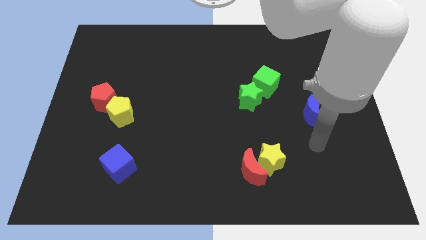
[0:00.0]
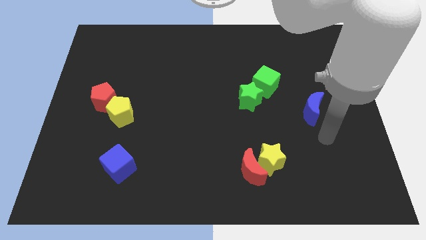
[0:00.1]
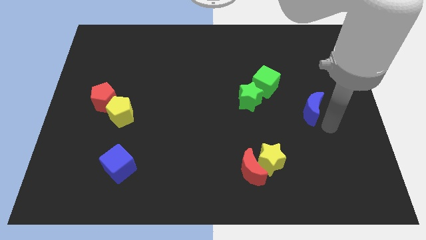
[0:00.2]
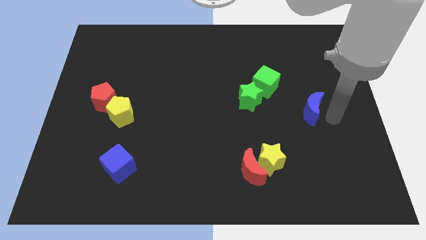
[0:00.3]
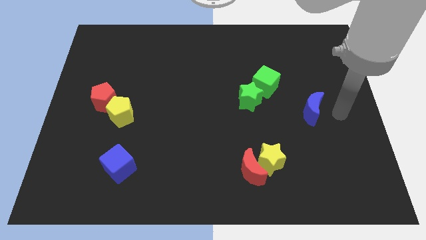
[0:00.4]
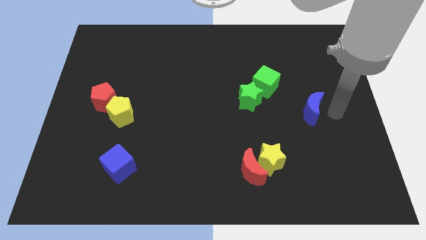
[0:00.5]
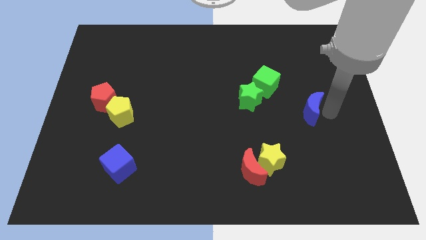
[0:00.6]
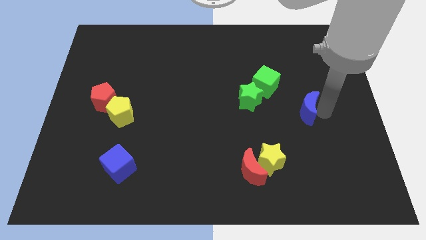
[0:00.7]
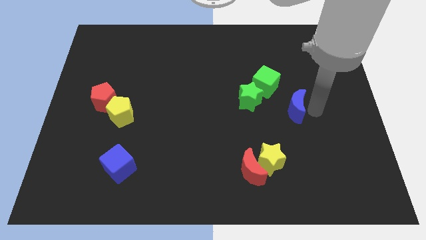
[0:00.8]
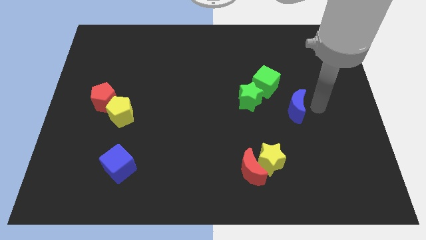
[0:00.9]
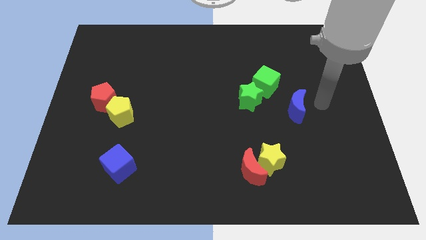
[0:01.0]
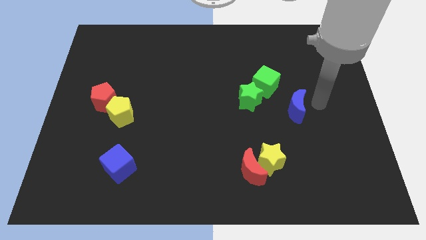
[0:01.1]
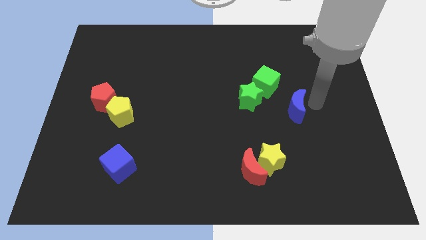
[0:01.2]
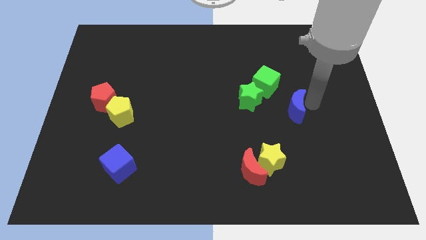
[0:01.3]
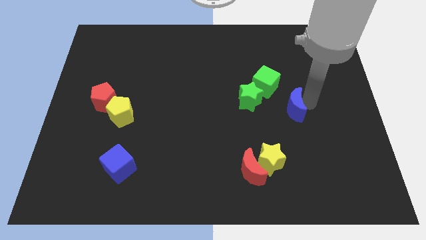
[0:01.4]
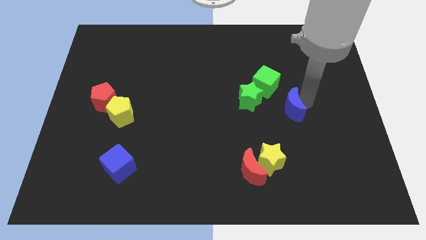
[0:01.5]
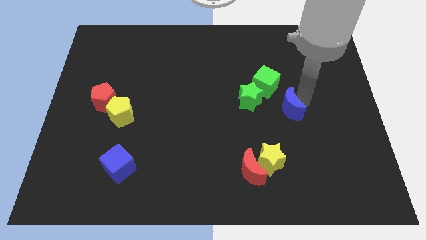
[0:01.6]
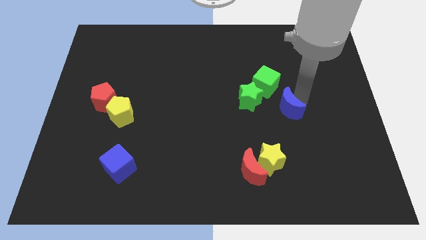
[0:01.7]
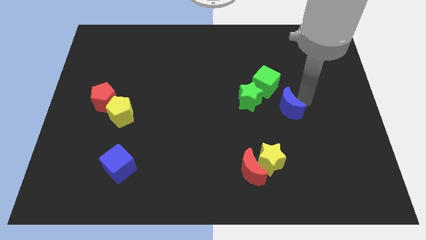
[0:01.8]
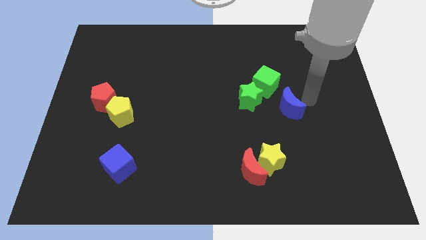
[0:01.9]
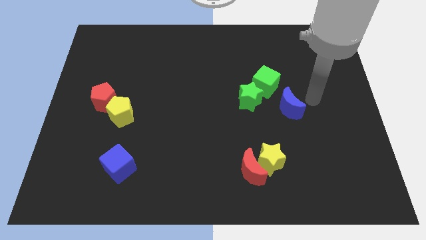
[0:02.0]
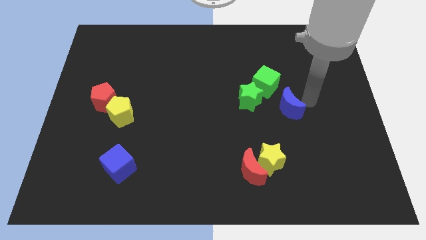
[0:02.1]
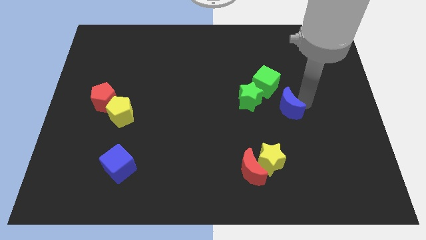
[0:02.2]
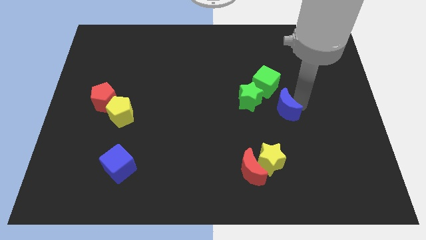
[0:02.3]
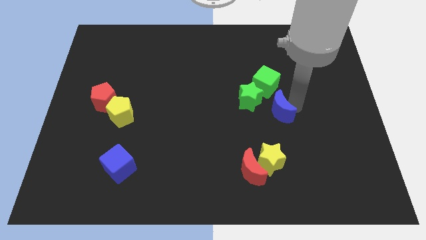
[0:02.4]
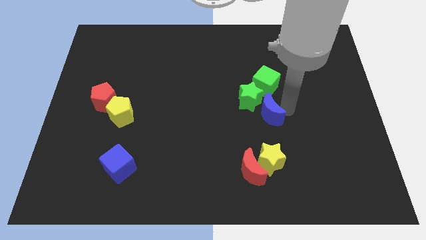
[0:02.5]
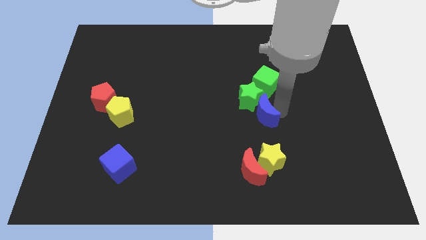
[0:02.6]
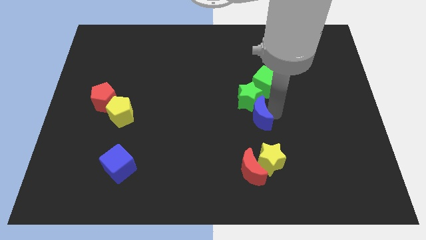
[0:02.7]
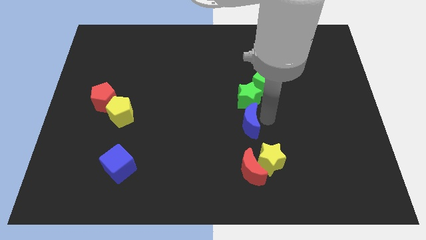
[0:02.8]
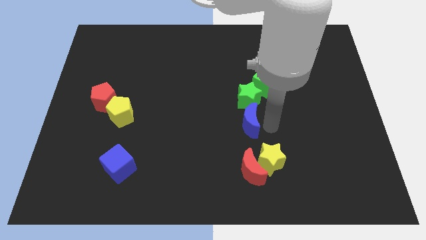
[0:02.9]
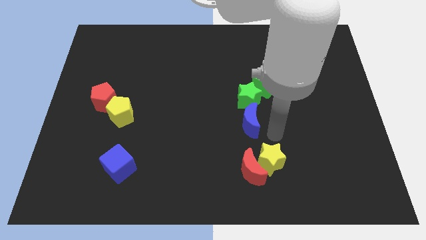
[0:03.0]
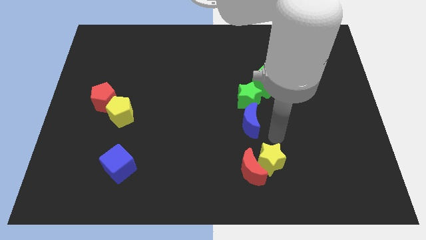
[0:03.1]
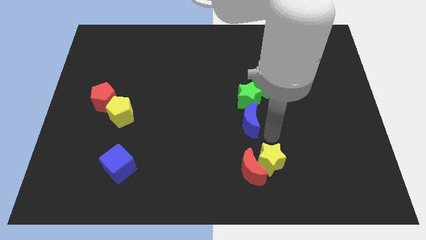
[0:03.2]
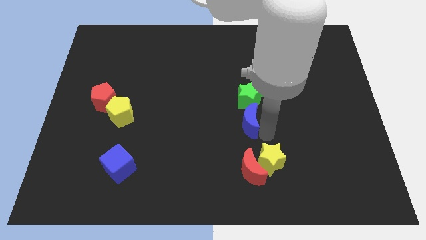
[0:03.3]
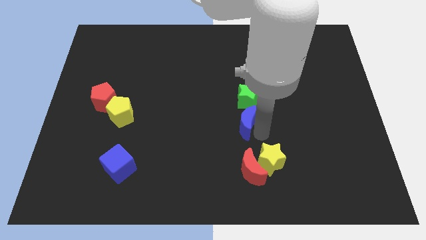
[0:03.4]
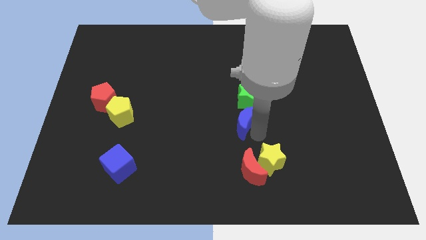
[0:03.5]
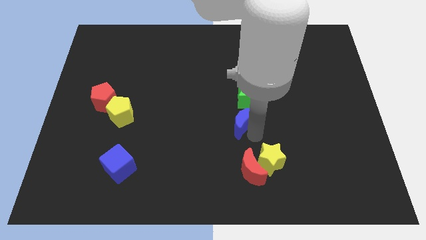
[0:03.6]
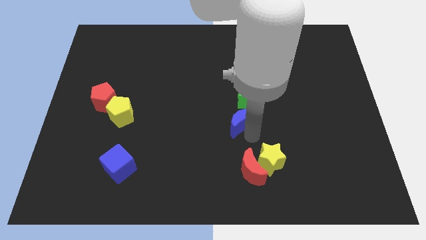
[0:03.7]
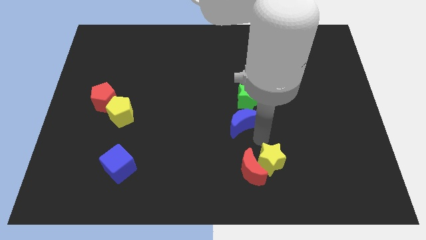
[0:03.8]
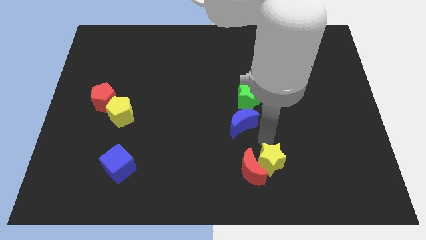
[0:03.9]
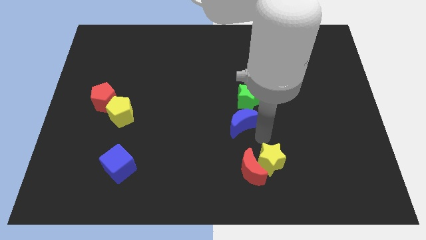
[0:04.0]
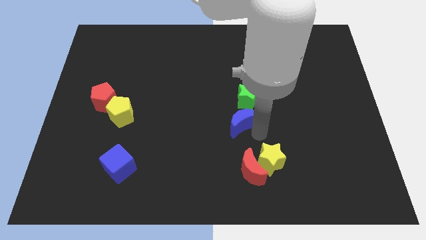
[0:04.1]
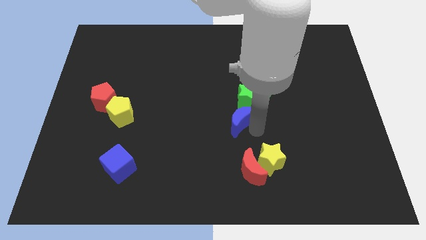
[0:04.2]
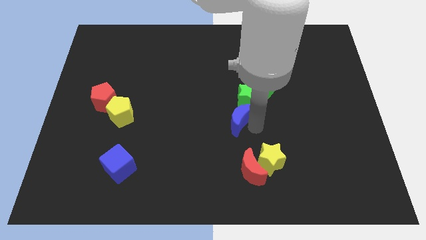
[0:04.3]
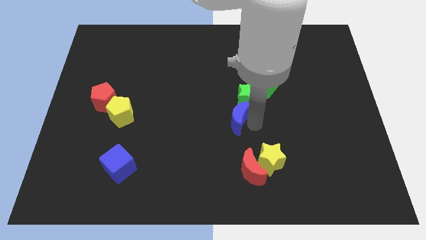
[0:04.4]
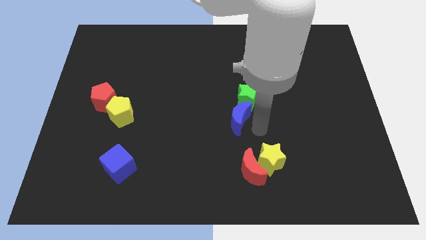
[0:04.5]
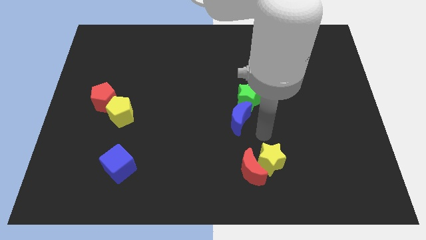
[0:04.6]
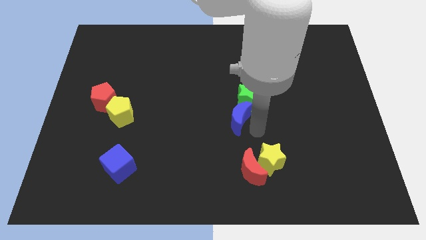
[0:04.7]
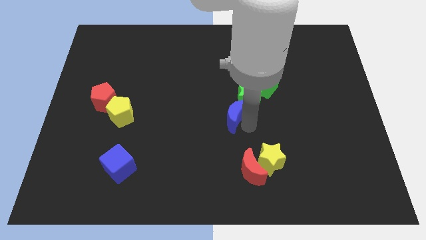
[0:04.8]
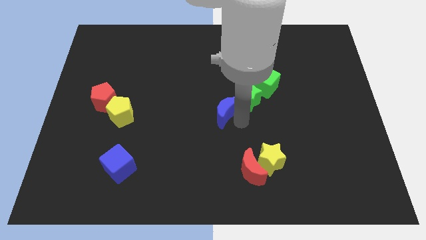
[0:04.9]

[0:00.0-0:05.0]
put the blue moon to the left side of the green star

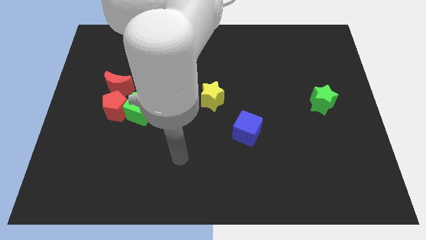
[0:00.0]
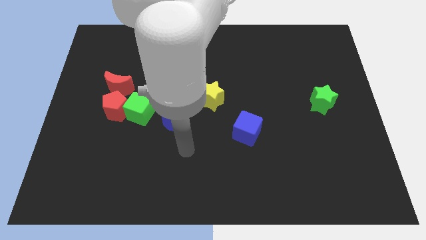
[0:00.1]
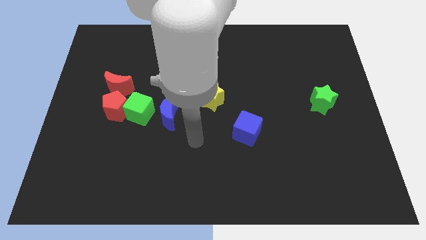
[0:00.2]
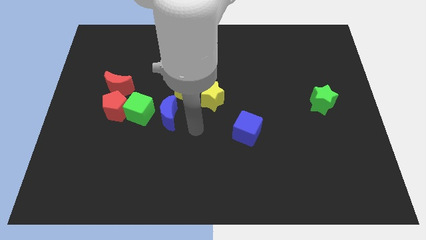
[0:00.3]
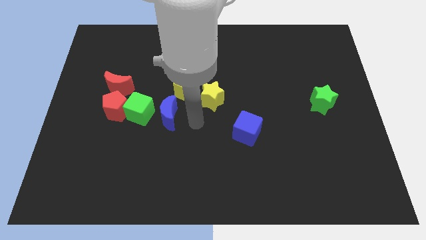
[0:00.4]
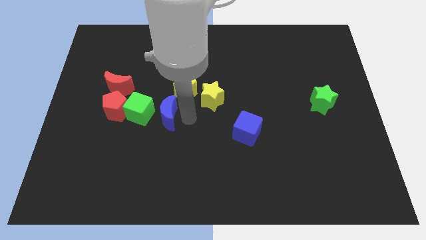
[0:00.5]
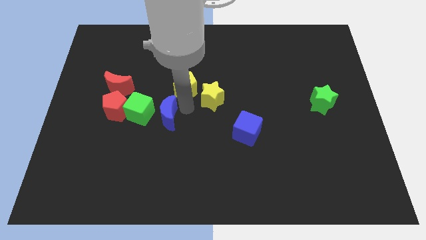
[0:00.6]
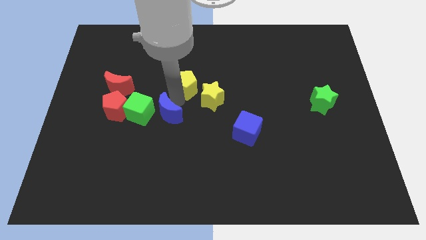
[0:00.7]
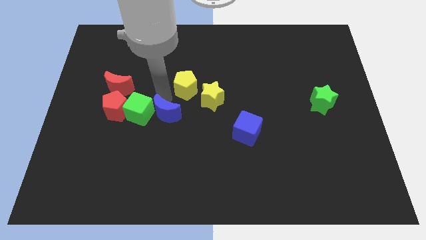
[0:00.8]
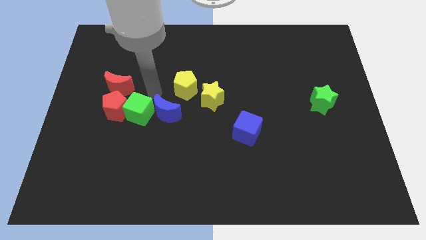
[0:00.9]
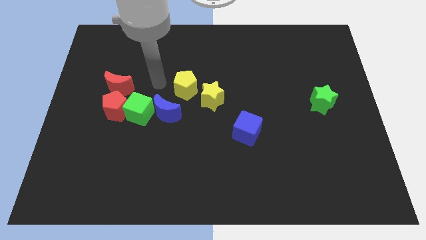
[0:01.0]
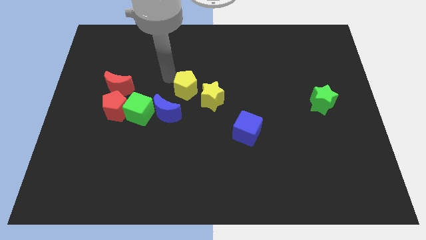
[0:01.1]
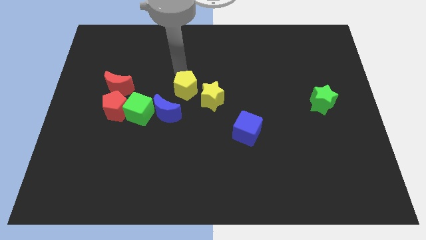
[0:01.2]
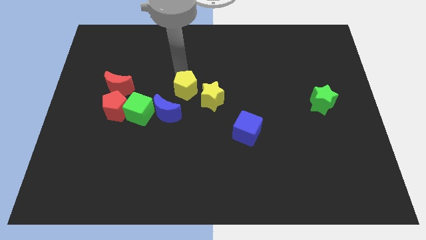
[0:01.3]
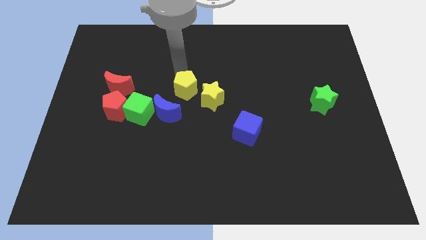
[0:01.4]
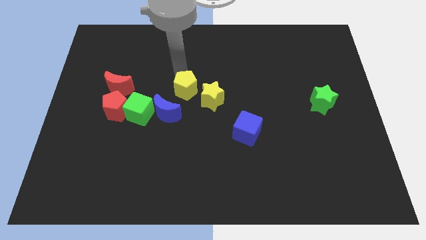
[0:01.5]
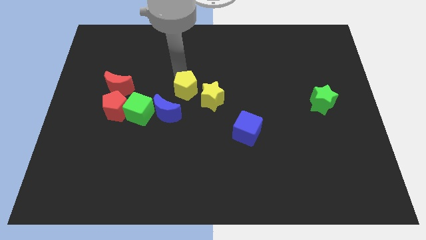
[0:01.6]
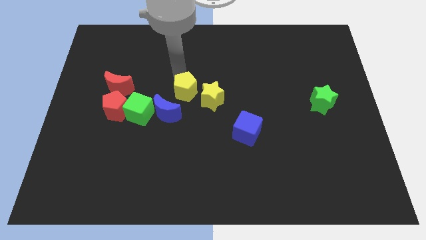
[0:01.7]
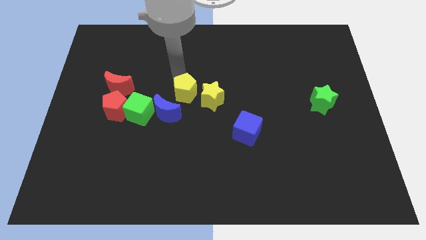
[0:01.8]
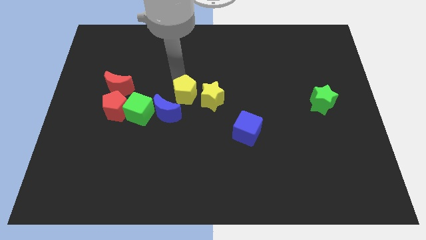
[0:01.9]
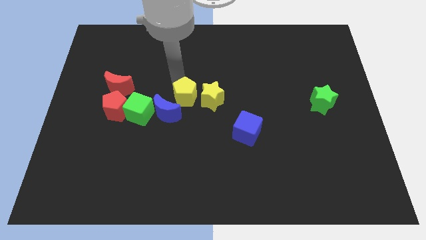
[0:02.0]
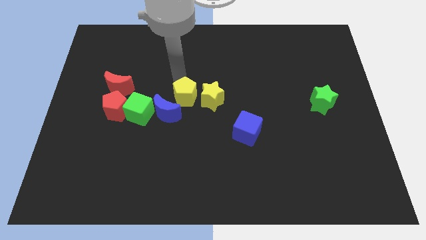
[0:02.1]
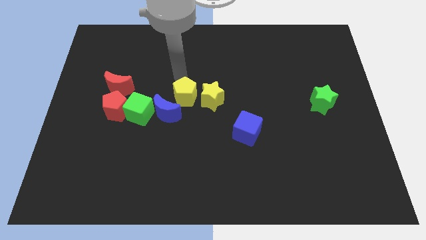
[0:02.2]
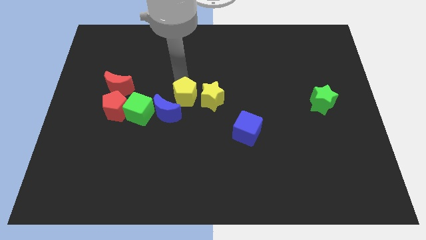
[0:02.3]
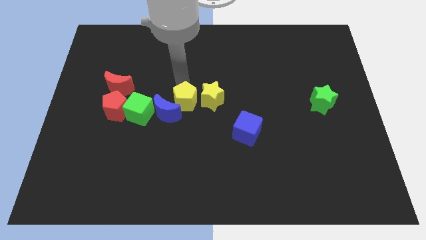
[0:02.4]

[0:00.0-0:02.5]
push the yellow pentagon diagonally down and to the left of the yellow star

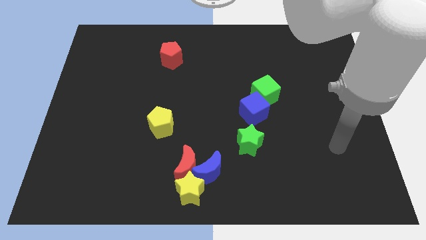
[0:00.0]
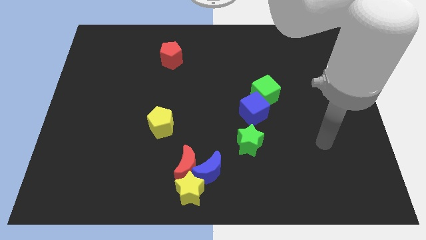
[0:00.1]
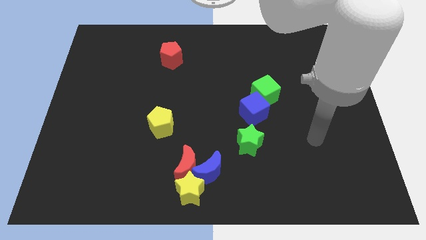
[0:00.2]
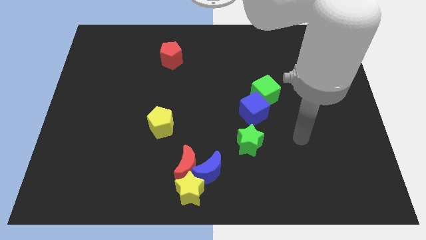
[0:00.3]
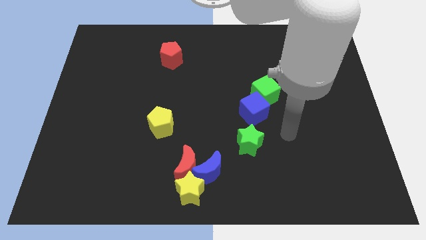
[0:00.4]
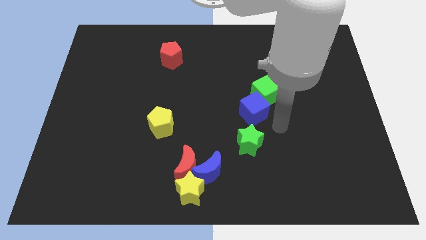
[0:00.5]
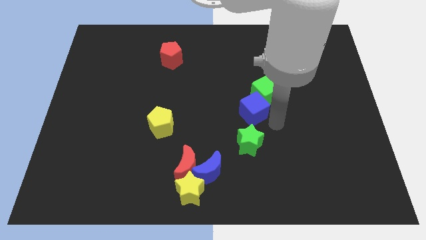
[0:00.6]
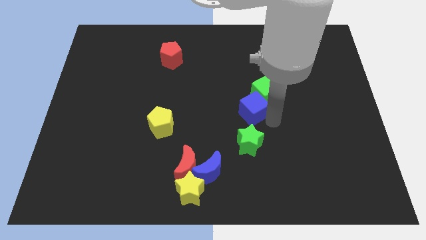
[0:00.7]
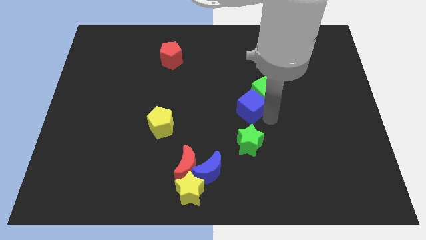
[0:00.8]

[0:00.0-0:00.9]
slide the blue cube to the left side of the green cube
